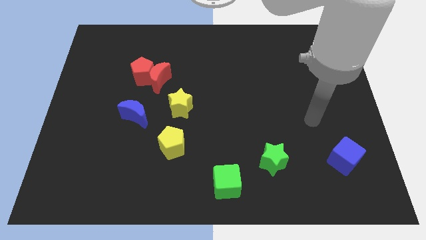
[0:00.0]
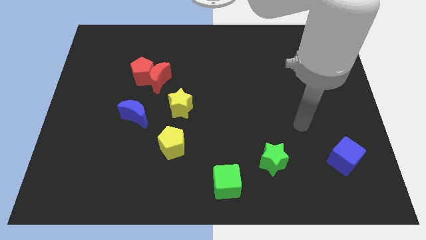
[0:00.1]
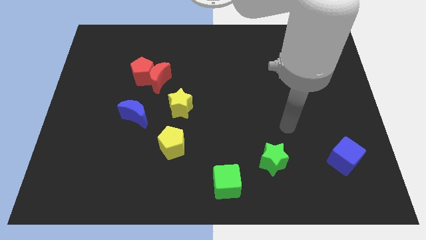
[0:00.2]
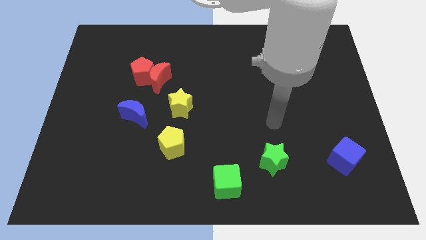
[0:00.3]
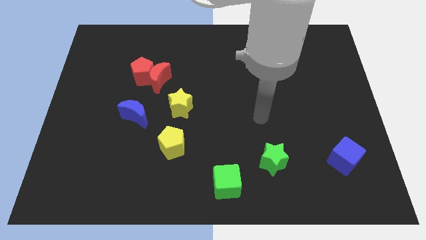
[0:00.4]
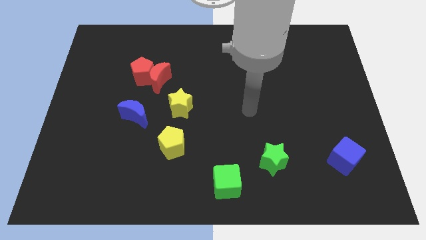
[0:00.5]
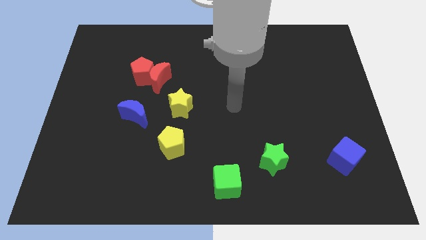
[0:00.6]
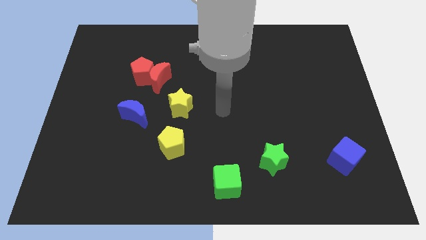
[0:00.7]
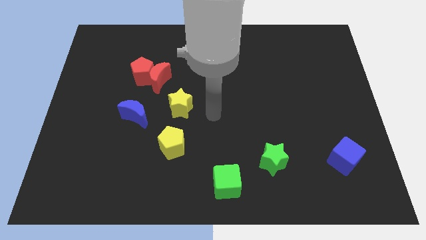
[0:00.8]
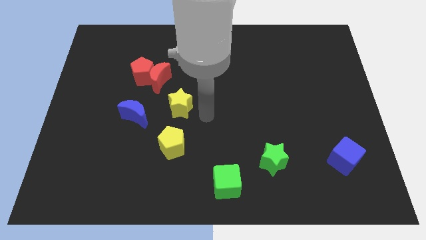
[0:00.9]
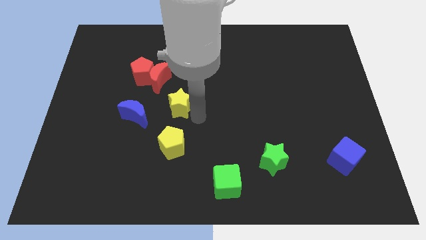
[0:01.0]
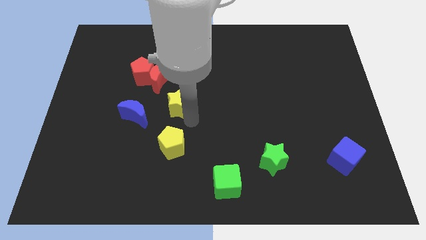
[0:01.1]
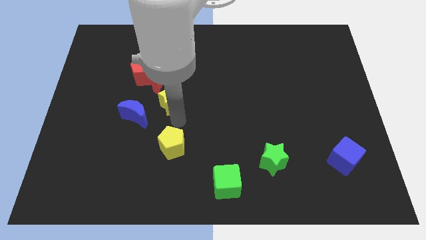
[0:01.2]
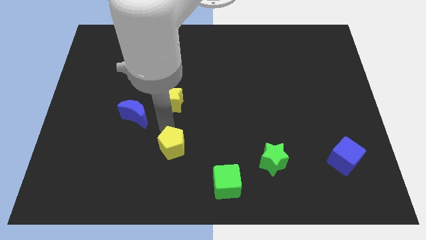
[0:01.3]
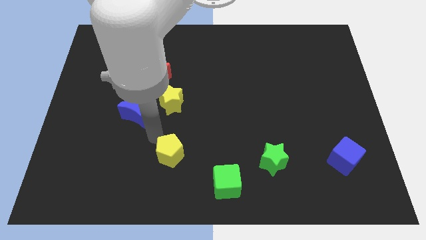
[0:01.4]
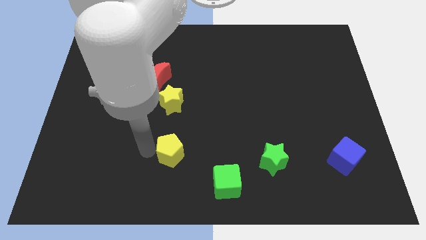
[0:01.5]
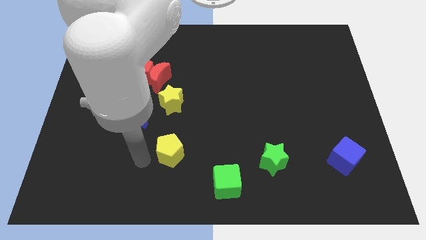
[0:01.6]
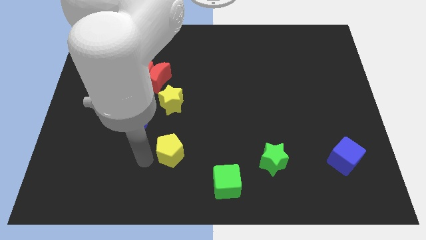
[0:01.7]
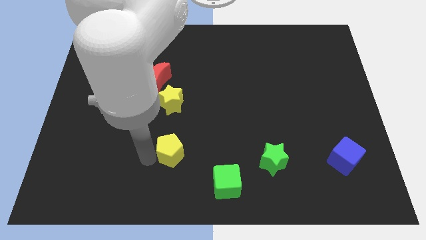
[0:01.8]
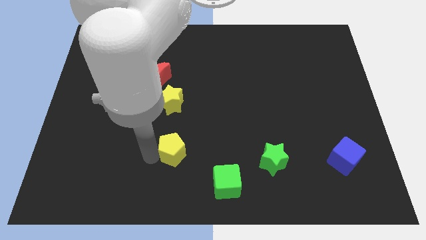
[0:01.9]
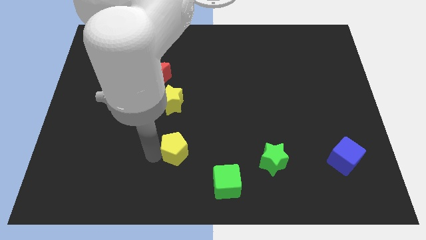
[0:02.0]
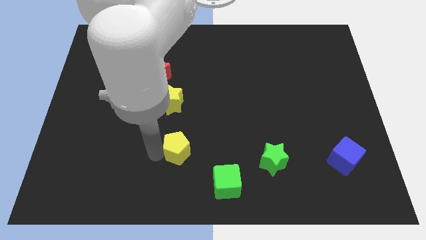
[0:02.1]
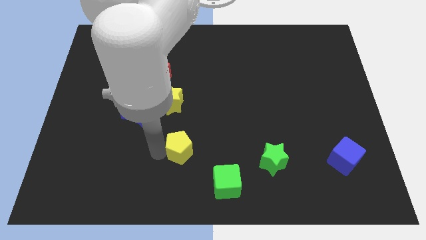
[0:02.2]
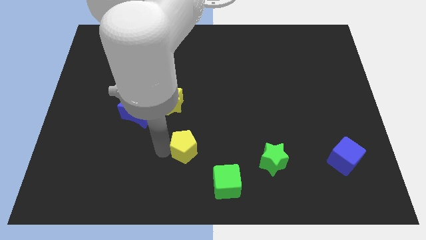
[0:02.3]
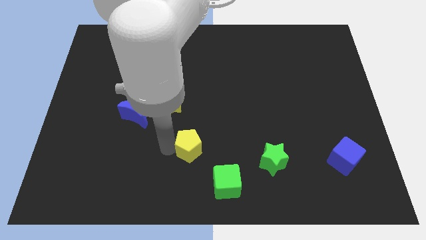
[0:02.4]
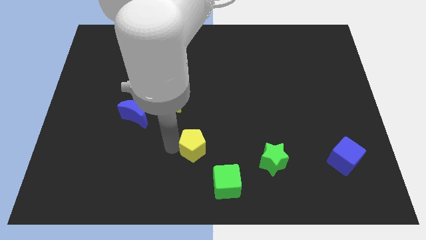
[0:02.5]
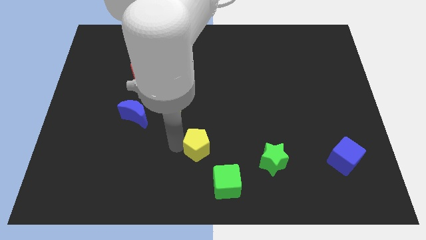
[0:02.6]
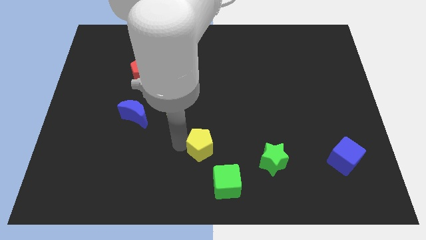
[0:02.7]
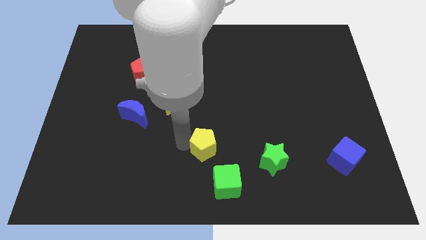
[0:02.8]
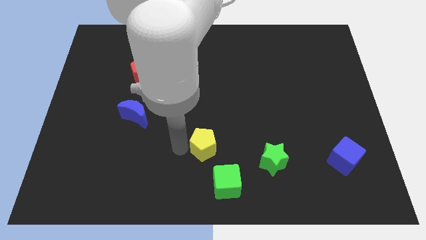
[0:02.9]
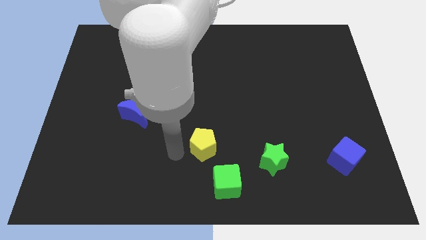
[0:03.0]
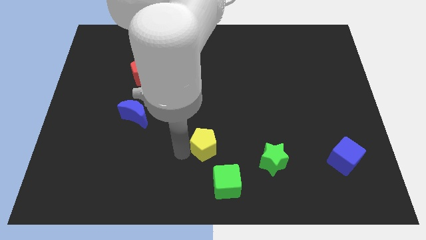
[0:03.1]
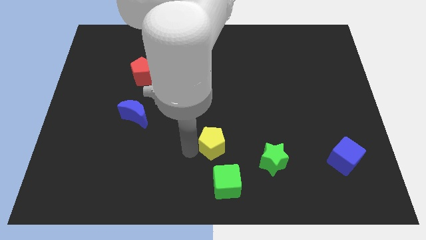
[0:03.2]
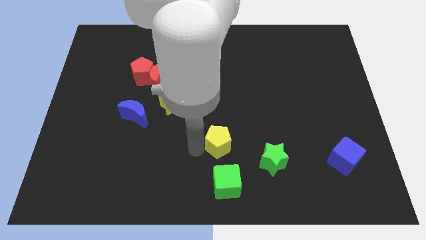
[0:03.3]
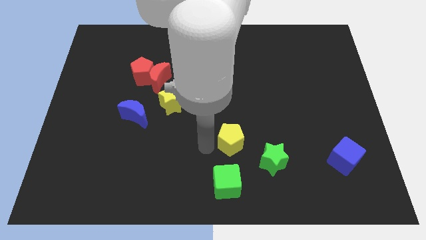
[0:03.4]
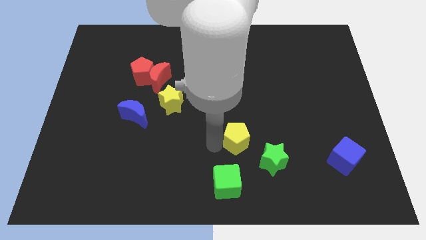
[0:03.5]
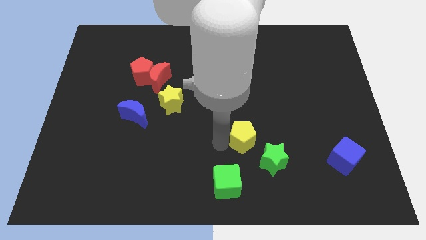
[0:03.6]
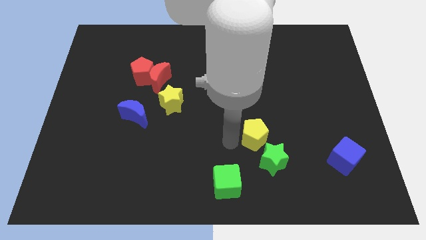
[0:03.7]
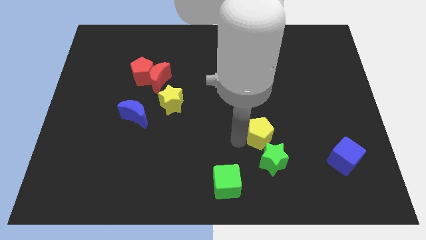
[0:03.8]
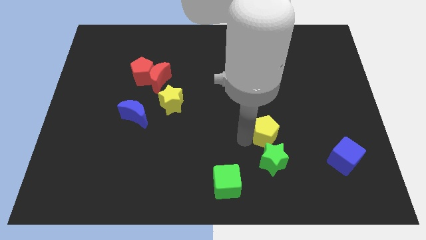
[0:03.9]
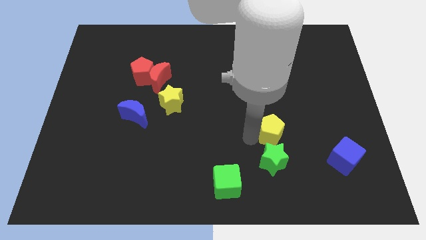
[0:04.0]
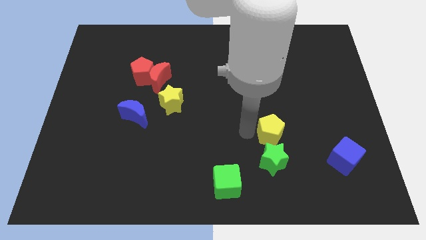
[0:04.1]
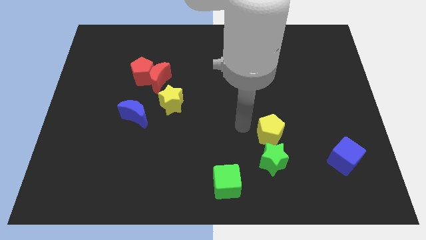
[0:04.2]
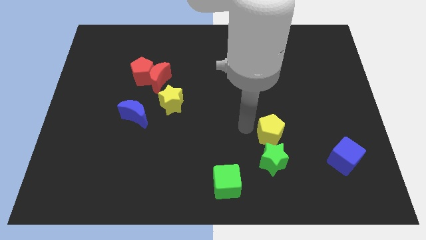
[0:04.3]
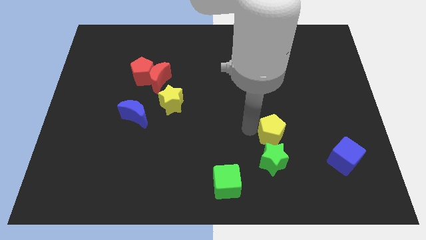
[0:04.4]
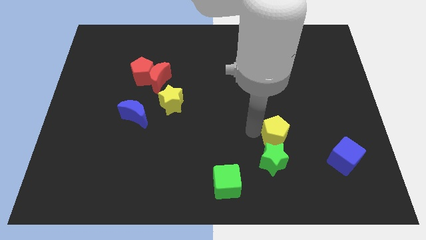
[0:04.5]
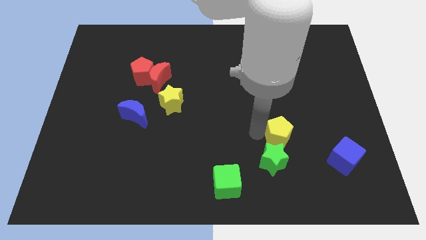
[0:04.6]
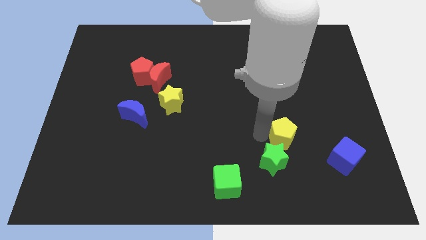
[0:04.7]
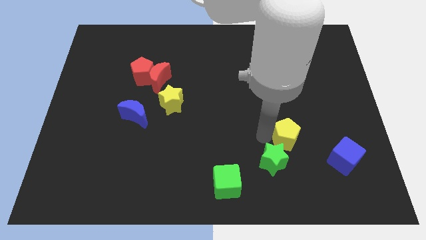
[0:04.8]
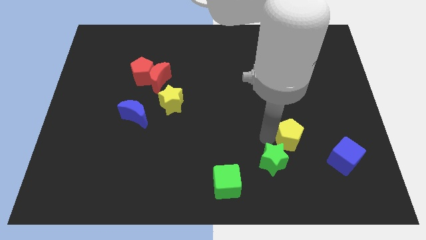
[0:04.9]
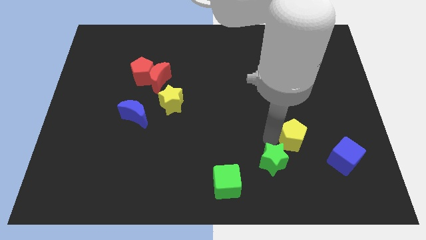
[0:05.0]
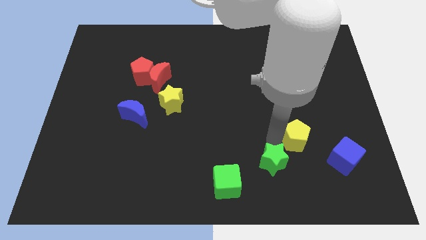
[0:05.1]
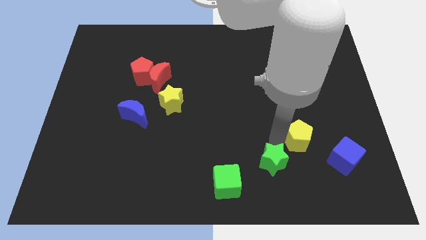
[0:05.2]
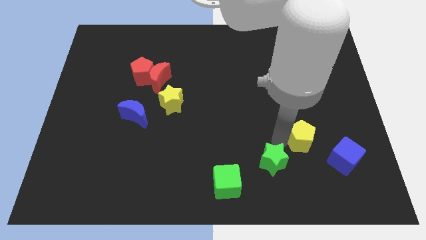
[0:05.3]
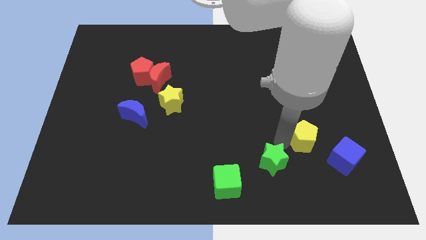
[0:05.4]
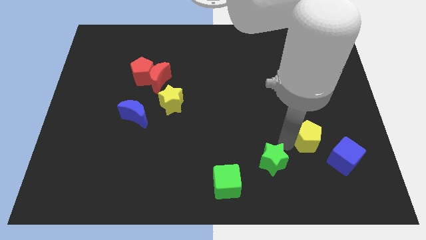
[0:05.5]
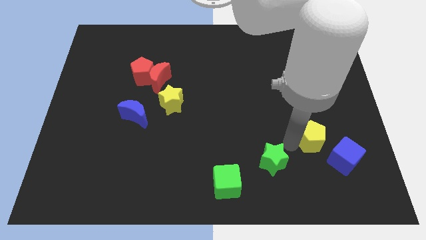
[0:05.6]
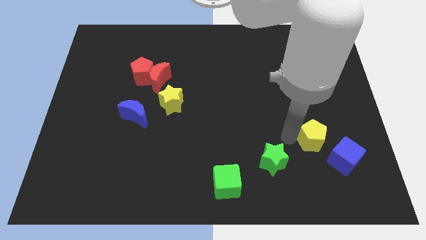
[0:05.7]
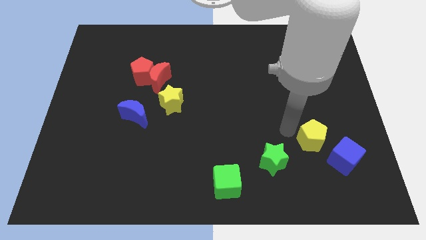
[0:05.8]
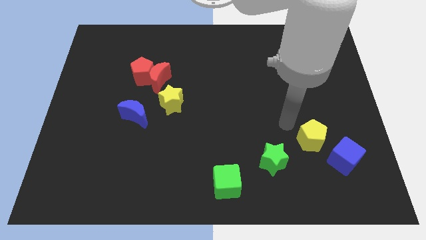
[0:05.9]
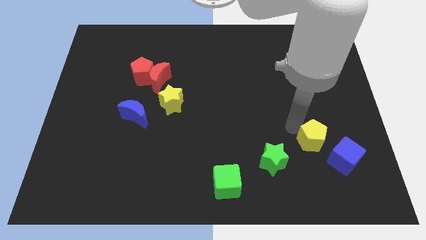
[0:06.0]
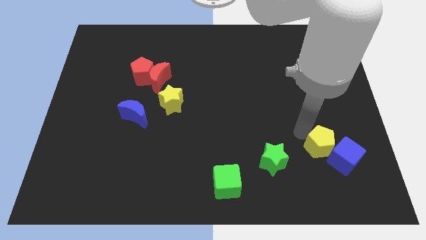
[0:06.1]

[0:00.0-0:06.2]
move the yellow pentagon next to the blue cube

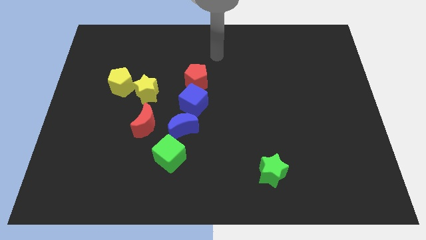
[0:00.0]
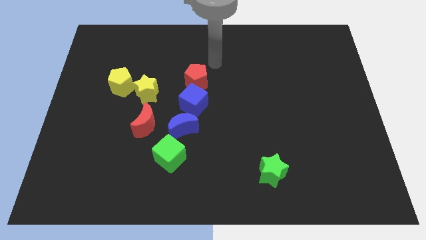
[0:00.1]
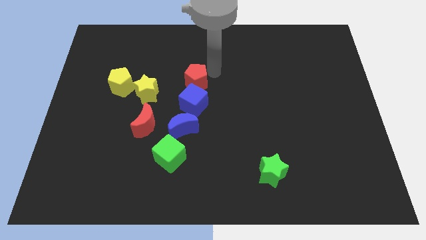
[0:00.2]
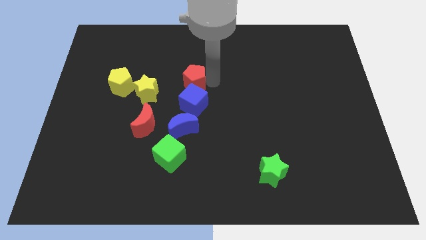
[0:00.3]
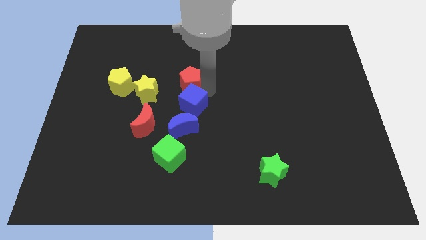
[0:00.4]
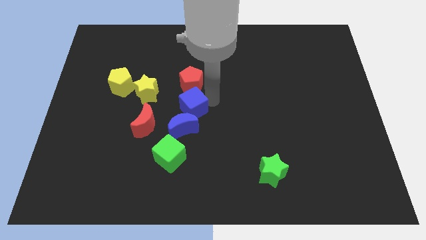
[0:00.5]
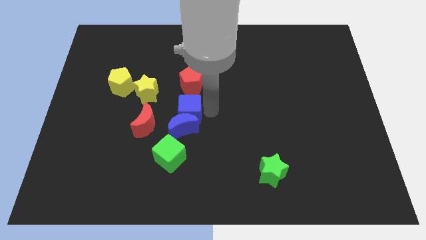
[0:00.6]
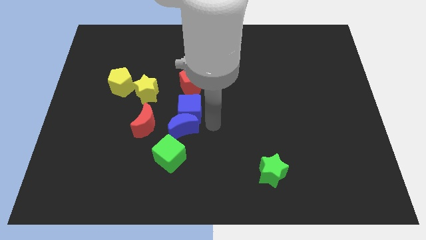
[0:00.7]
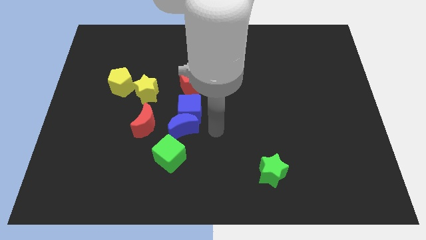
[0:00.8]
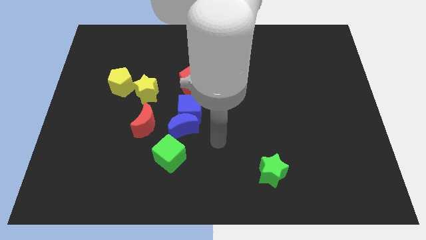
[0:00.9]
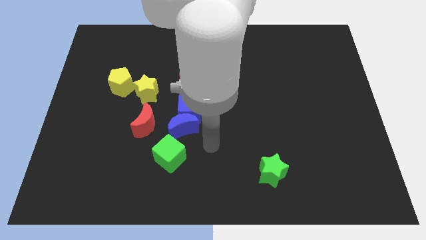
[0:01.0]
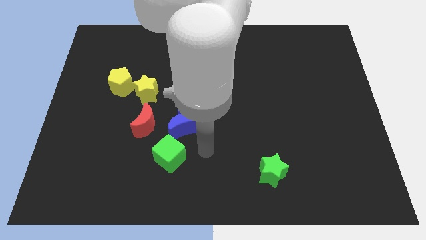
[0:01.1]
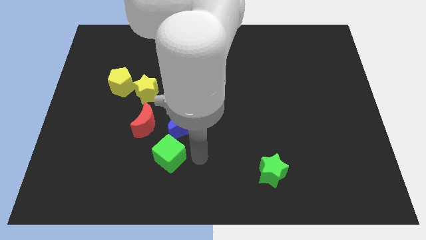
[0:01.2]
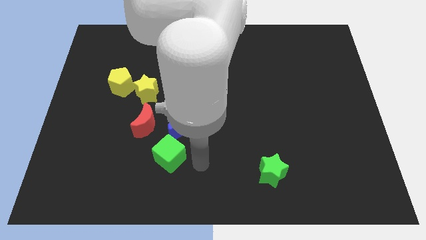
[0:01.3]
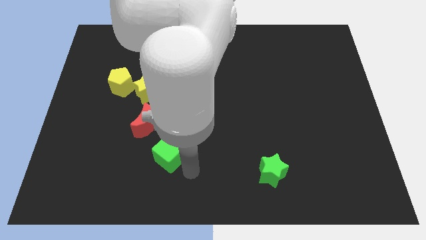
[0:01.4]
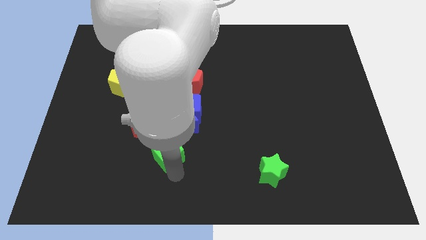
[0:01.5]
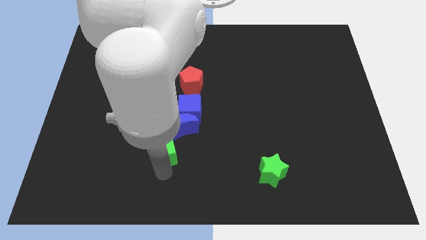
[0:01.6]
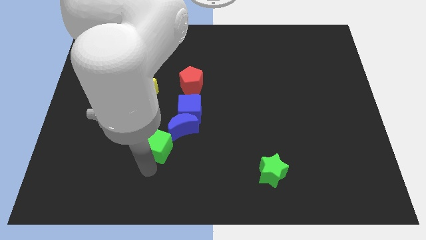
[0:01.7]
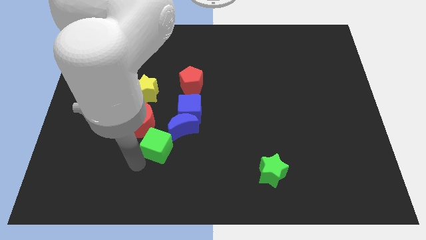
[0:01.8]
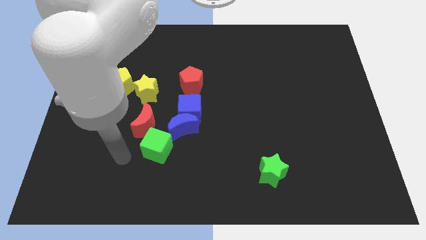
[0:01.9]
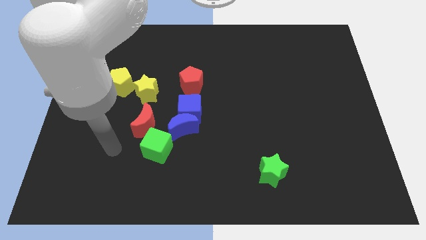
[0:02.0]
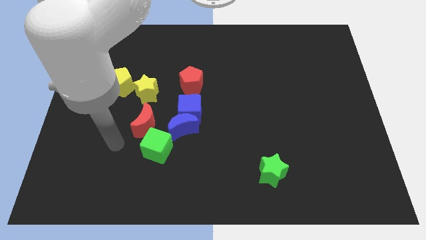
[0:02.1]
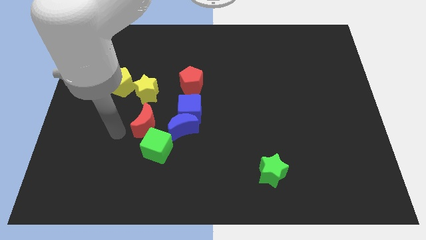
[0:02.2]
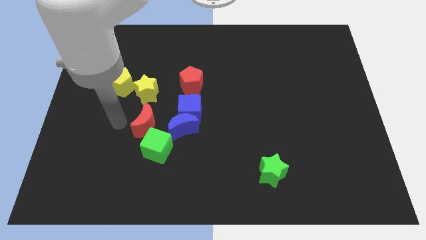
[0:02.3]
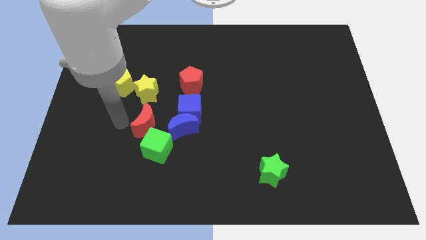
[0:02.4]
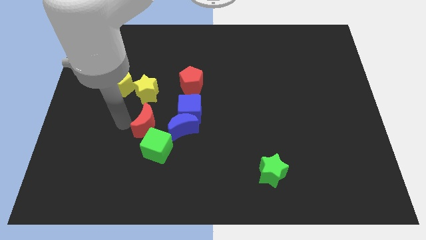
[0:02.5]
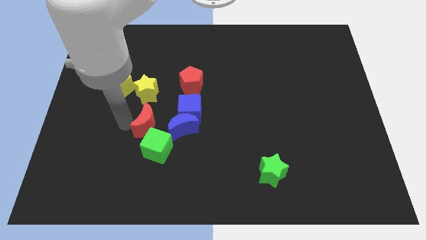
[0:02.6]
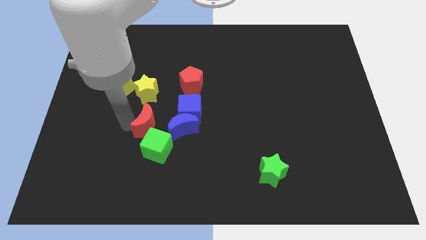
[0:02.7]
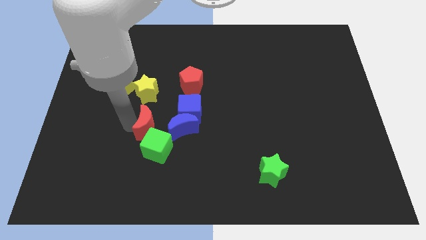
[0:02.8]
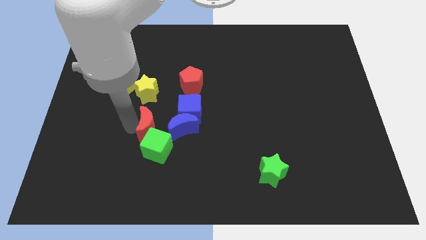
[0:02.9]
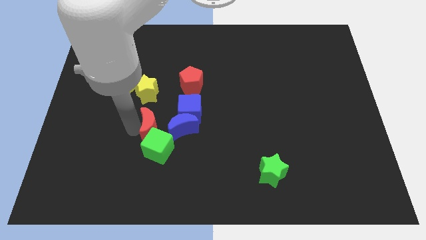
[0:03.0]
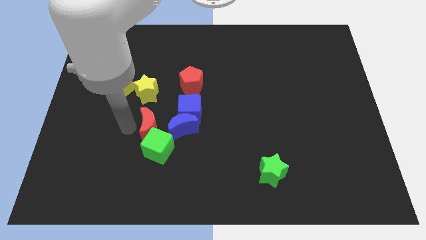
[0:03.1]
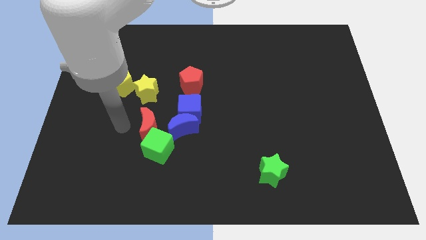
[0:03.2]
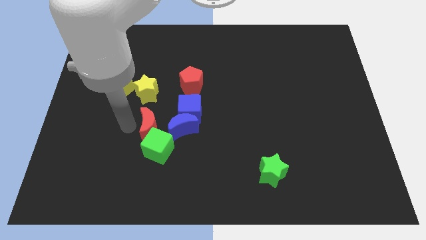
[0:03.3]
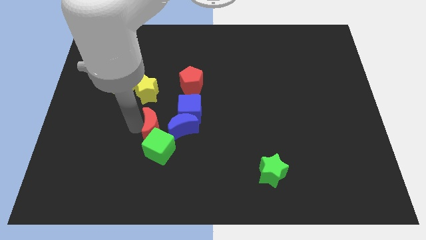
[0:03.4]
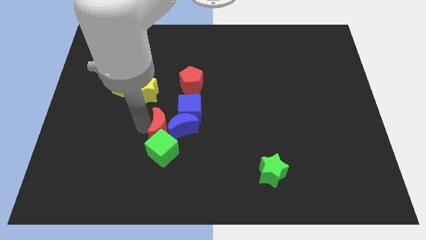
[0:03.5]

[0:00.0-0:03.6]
move the red moon towards the blue moon
